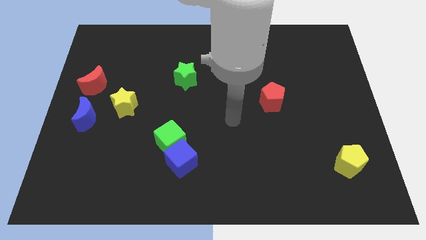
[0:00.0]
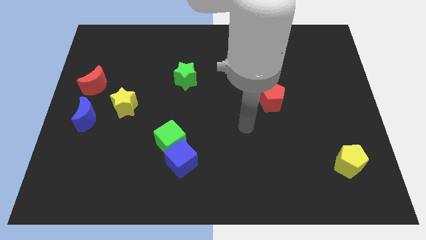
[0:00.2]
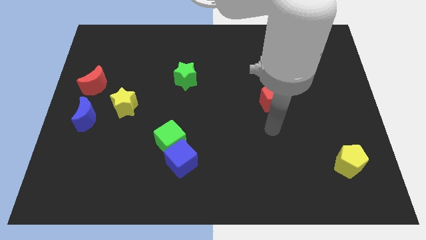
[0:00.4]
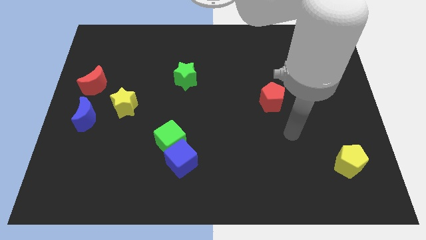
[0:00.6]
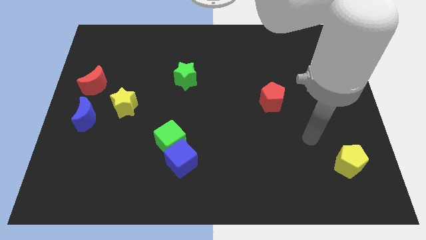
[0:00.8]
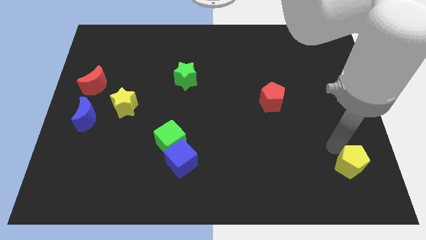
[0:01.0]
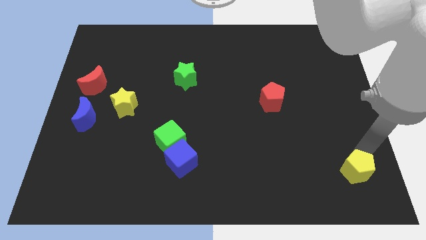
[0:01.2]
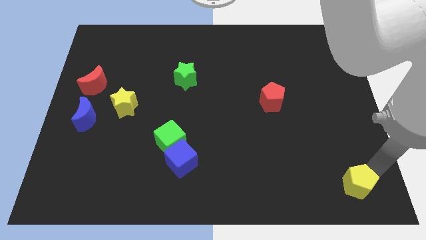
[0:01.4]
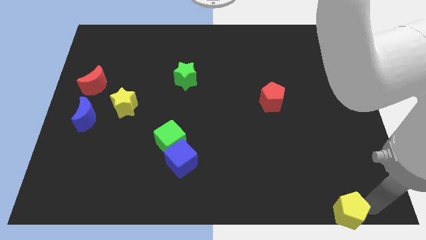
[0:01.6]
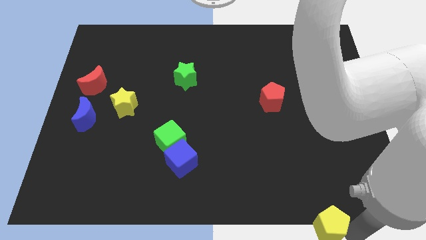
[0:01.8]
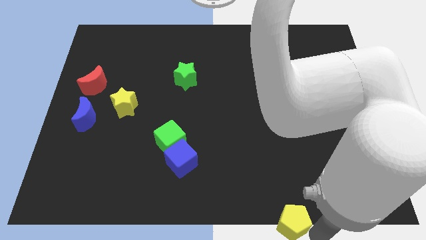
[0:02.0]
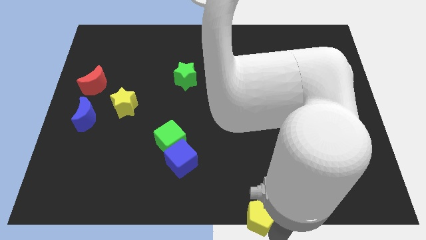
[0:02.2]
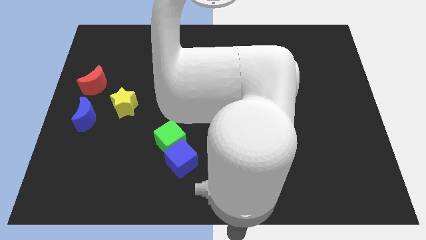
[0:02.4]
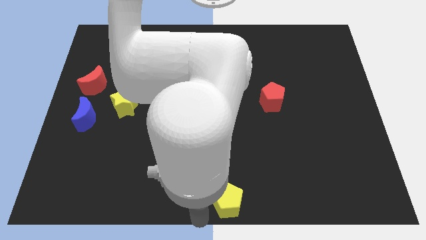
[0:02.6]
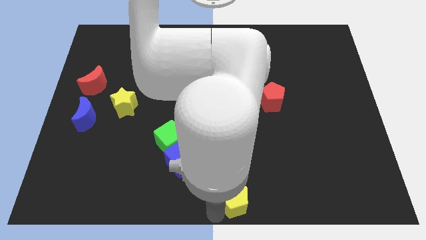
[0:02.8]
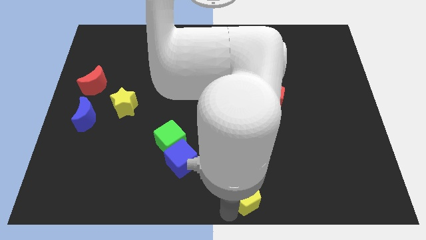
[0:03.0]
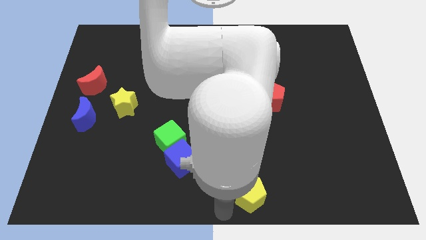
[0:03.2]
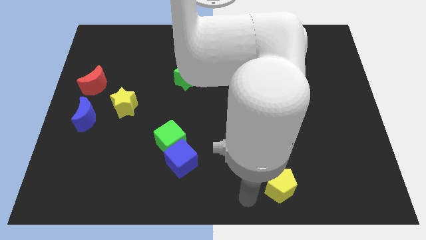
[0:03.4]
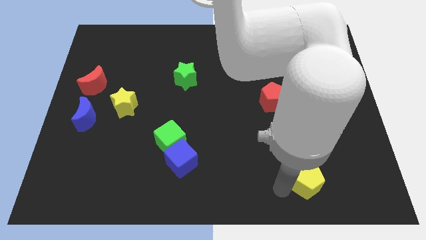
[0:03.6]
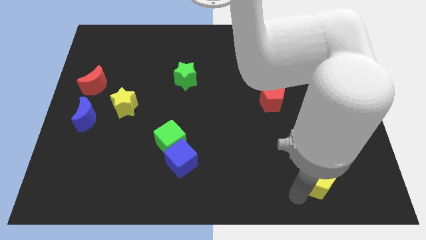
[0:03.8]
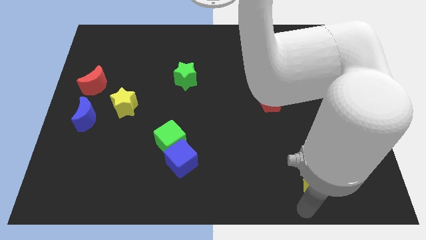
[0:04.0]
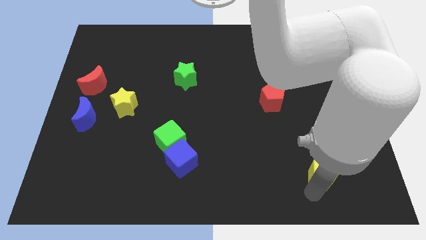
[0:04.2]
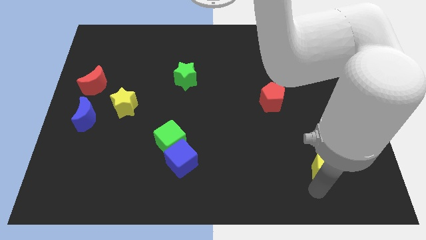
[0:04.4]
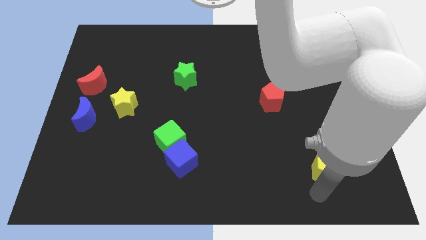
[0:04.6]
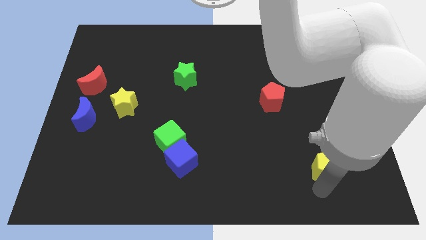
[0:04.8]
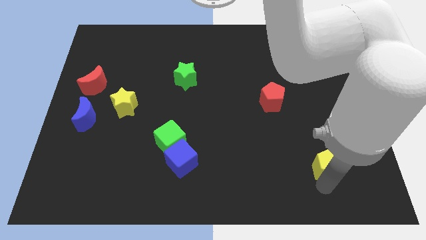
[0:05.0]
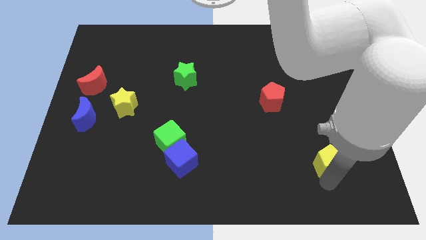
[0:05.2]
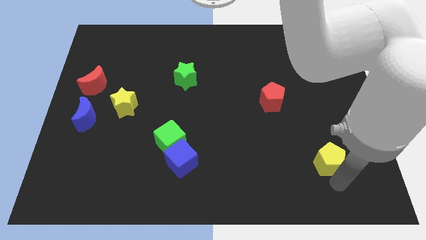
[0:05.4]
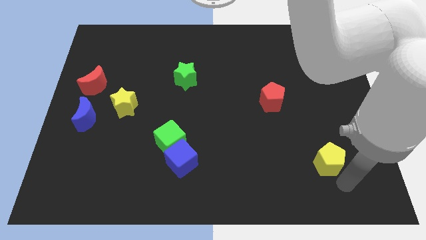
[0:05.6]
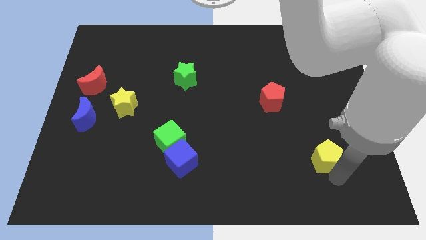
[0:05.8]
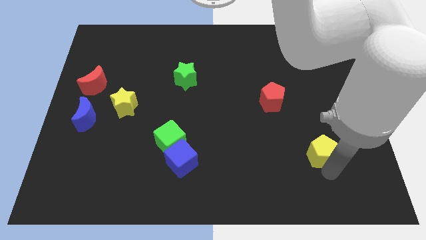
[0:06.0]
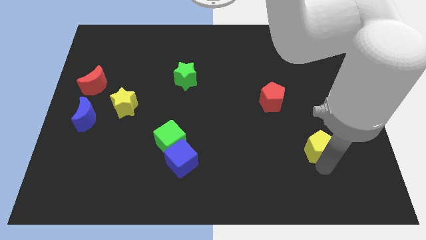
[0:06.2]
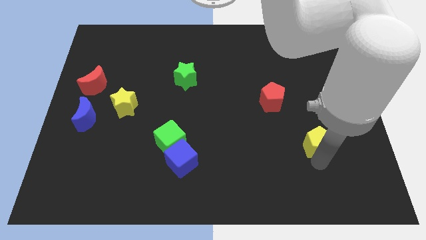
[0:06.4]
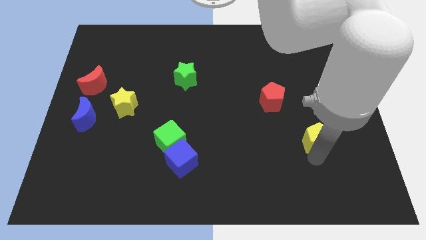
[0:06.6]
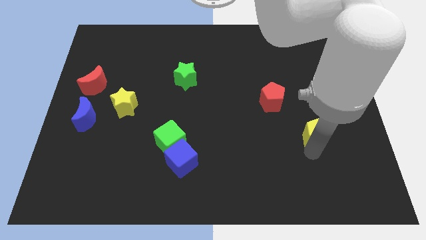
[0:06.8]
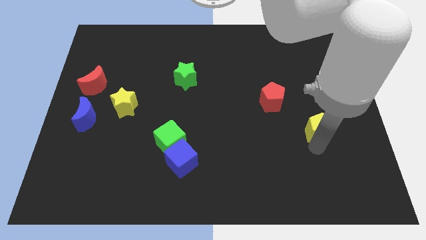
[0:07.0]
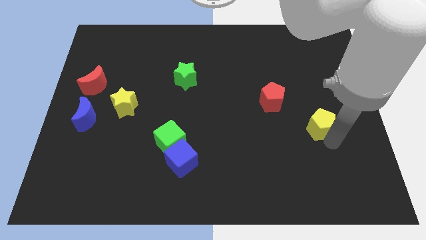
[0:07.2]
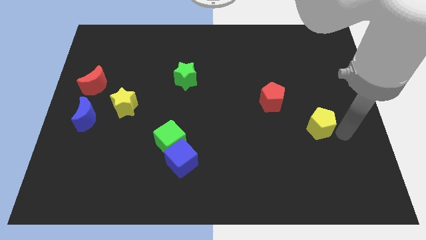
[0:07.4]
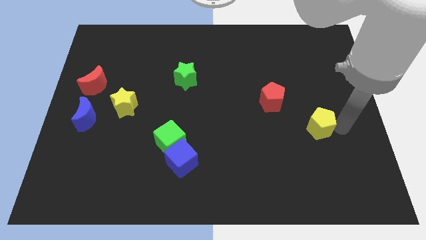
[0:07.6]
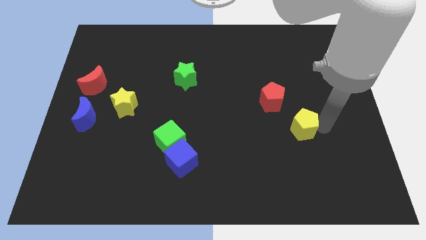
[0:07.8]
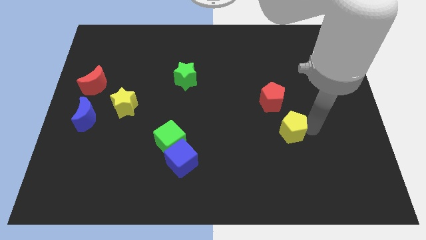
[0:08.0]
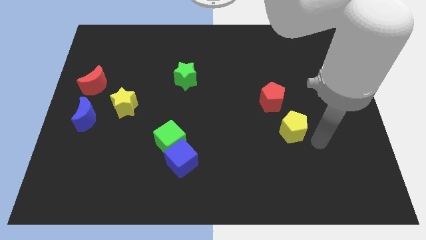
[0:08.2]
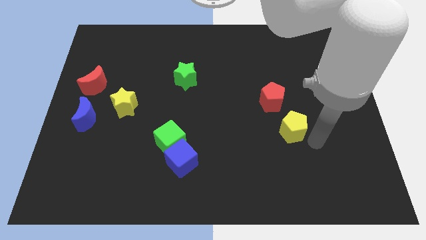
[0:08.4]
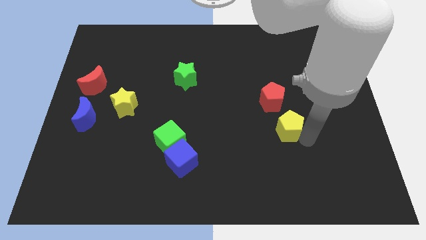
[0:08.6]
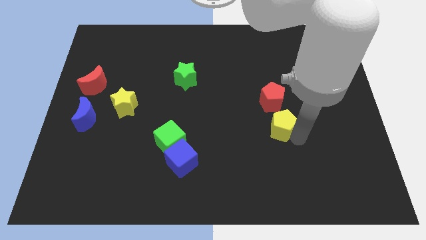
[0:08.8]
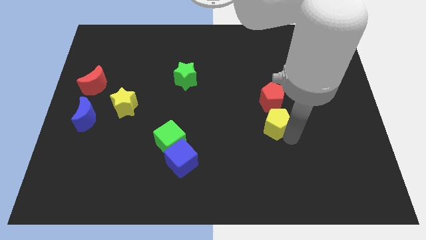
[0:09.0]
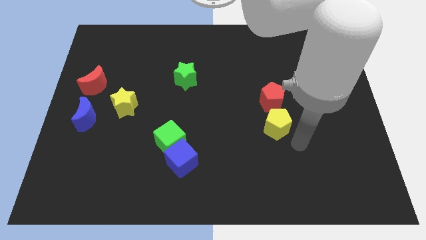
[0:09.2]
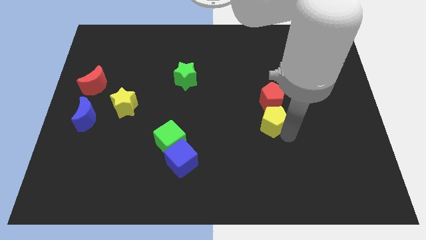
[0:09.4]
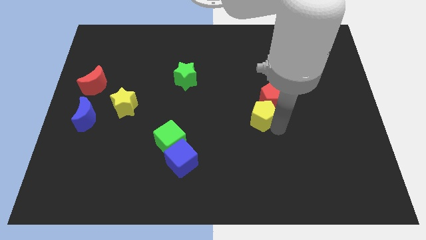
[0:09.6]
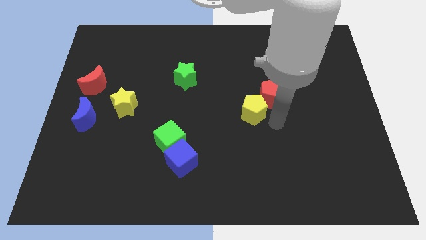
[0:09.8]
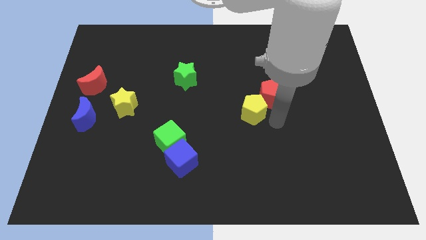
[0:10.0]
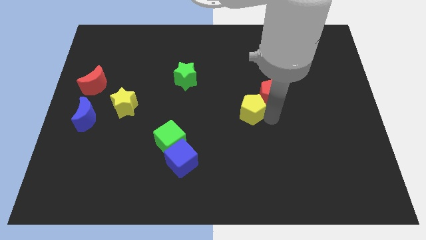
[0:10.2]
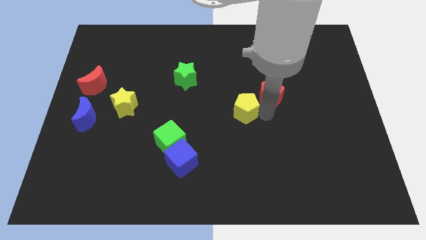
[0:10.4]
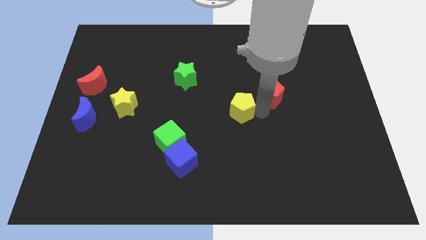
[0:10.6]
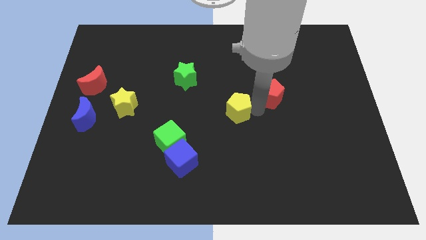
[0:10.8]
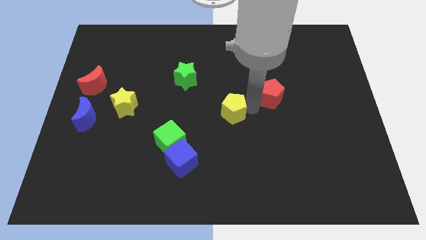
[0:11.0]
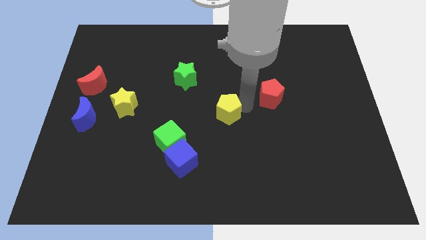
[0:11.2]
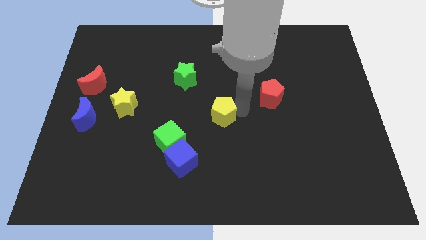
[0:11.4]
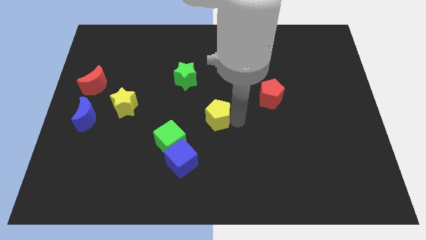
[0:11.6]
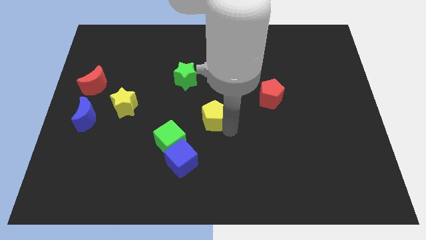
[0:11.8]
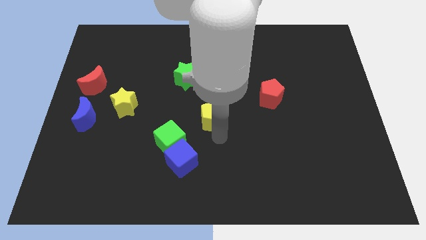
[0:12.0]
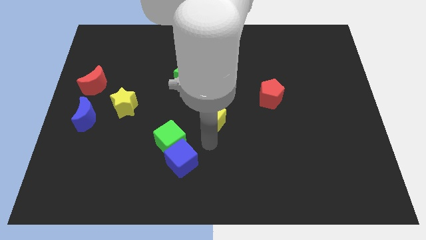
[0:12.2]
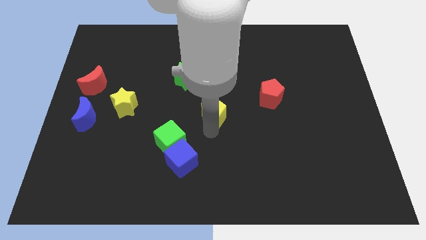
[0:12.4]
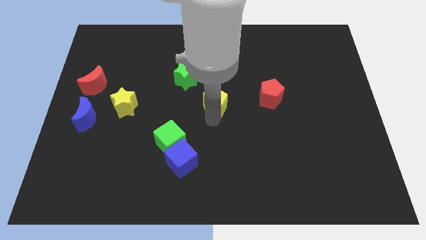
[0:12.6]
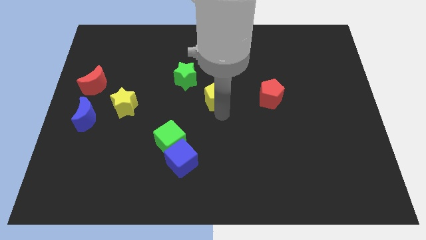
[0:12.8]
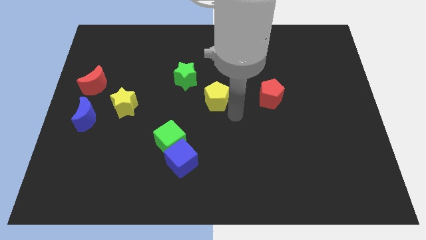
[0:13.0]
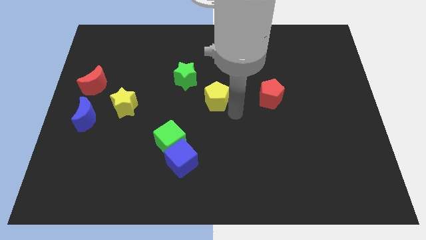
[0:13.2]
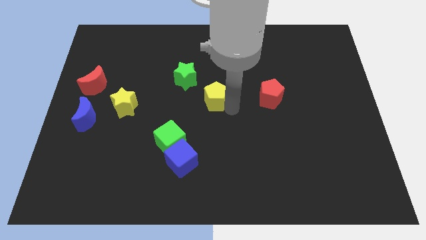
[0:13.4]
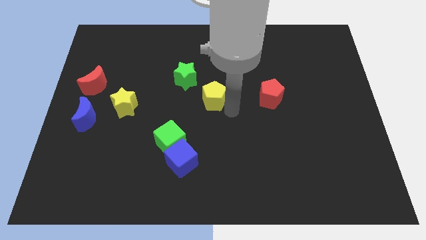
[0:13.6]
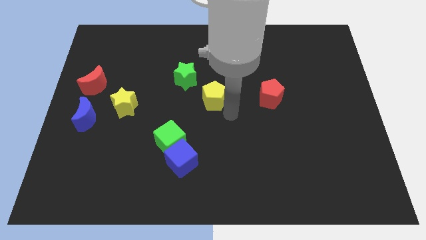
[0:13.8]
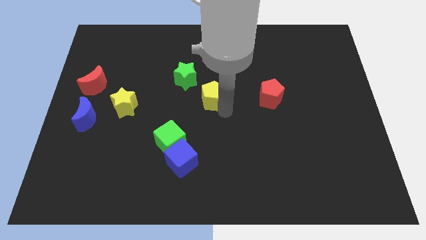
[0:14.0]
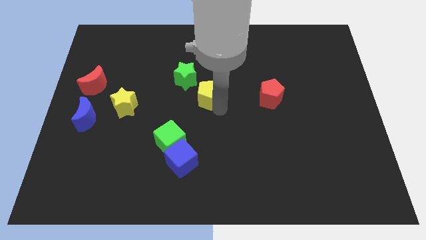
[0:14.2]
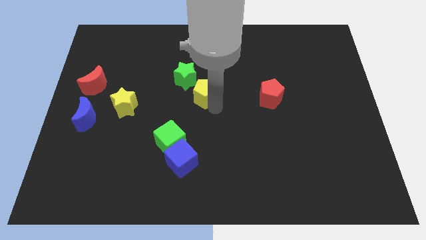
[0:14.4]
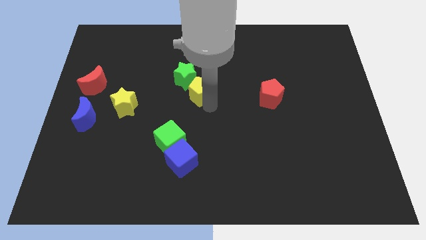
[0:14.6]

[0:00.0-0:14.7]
move the yellow pentagon towards the green star
